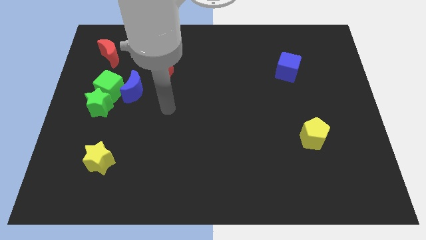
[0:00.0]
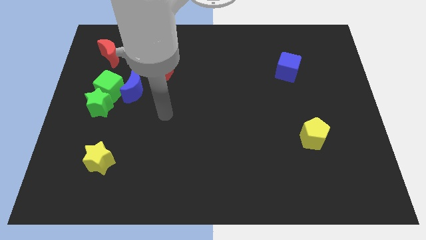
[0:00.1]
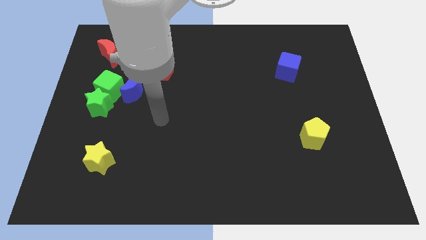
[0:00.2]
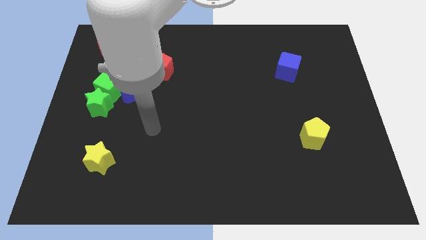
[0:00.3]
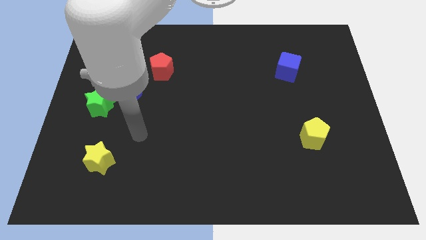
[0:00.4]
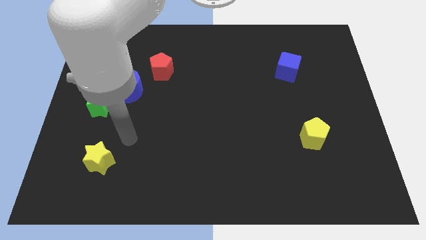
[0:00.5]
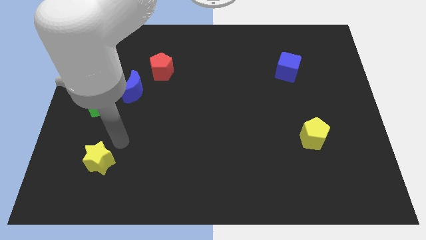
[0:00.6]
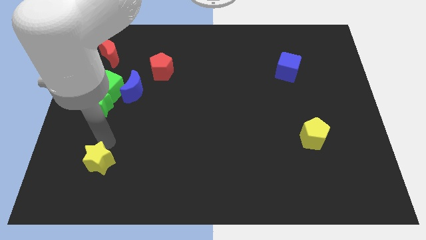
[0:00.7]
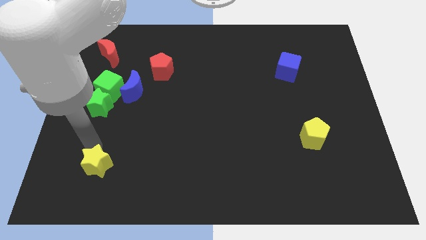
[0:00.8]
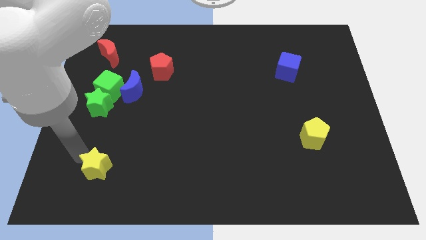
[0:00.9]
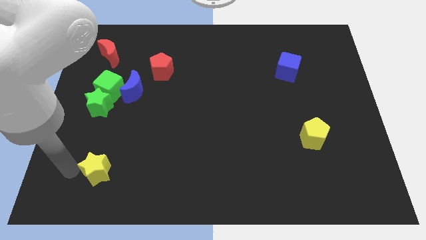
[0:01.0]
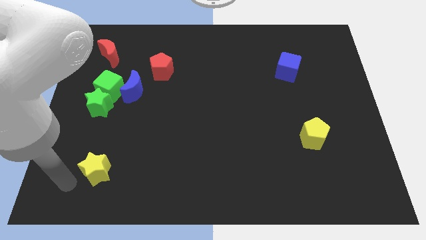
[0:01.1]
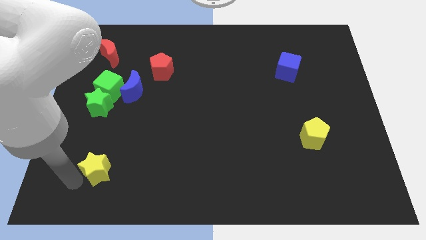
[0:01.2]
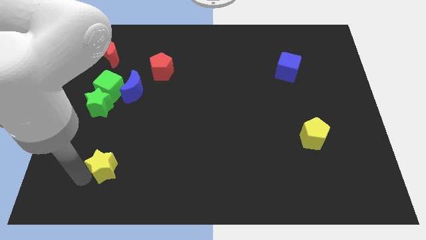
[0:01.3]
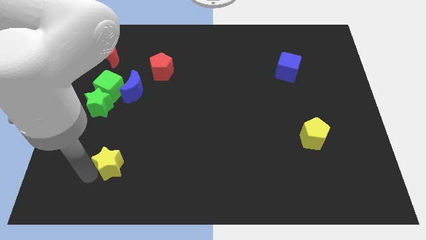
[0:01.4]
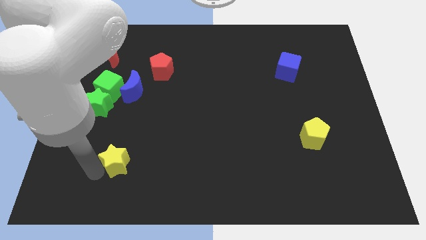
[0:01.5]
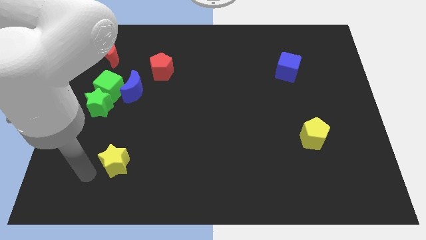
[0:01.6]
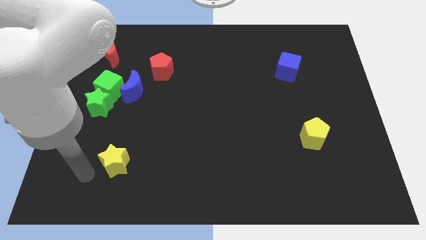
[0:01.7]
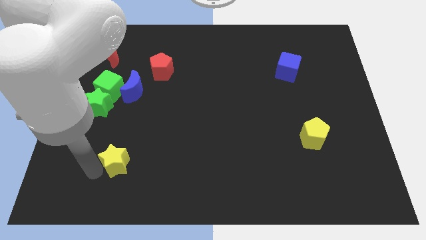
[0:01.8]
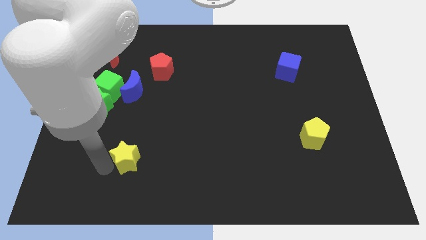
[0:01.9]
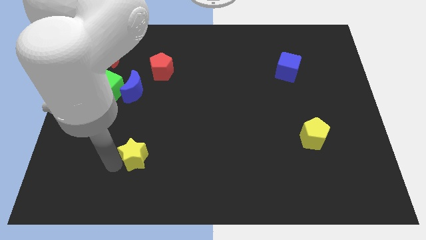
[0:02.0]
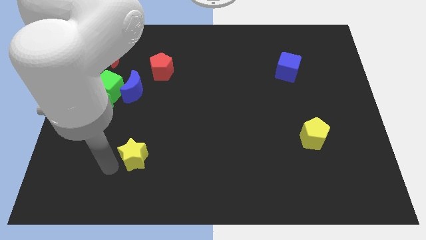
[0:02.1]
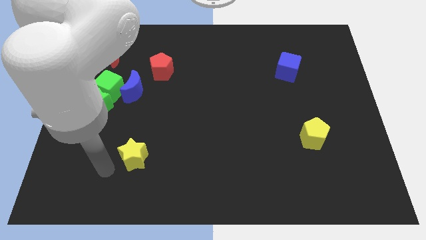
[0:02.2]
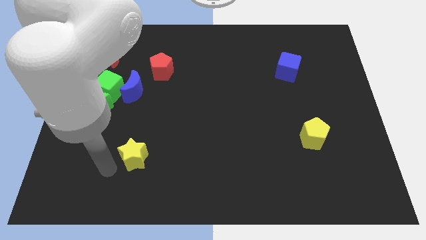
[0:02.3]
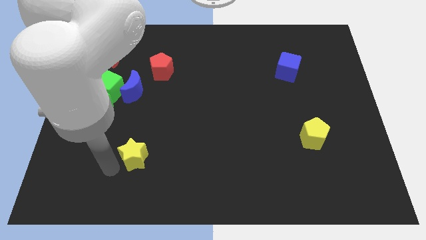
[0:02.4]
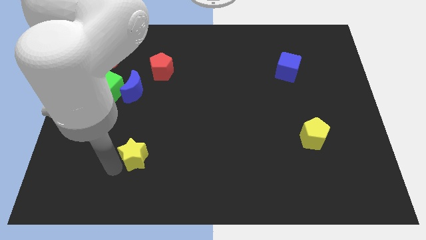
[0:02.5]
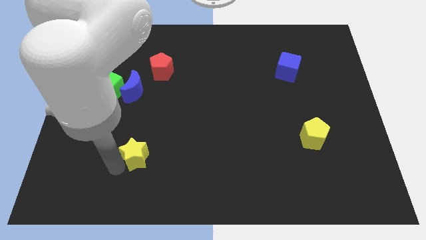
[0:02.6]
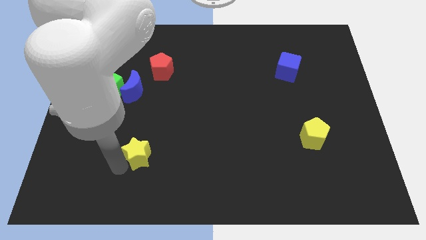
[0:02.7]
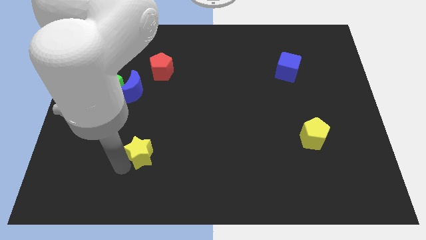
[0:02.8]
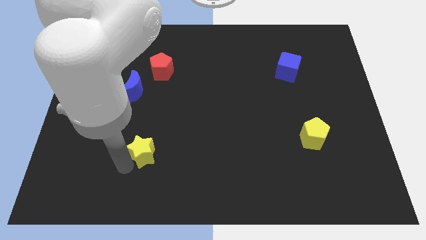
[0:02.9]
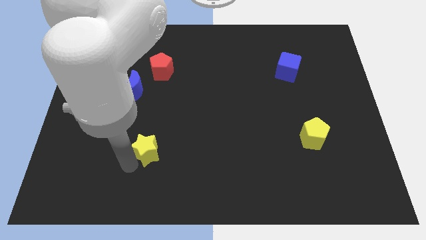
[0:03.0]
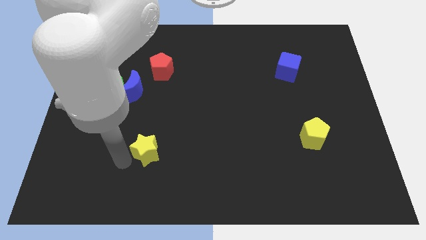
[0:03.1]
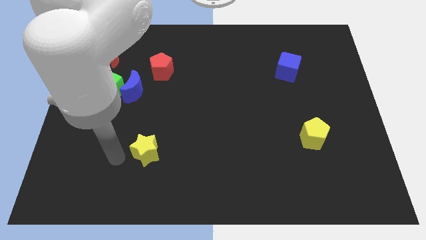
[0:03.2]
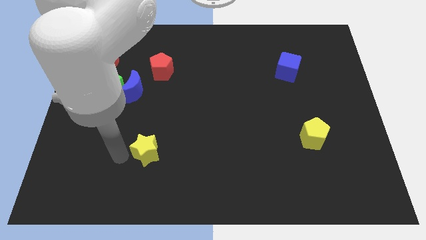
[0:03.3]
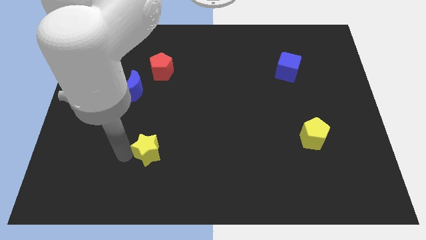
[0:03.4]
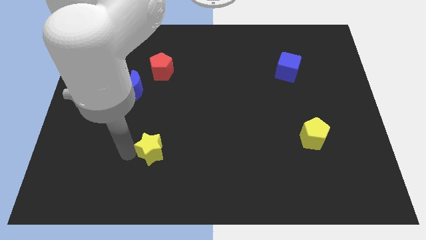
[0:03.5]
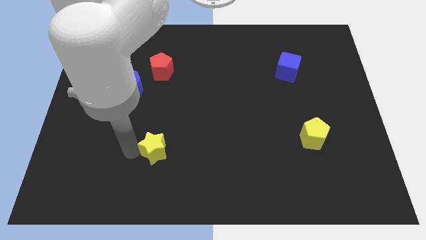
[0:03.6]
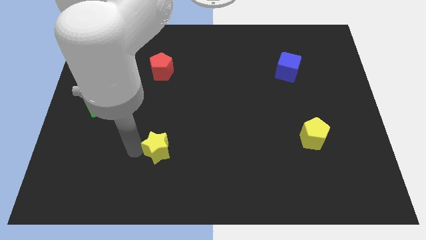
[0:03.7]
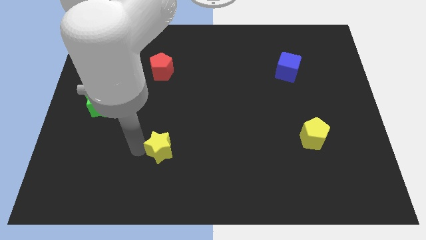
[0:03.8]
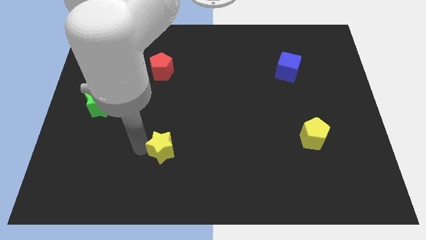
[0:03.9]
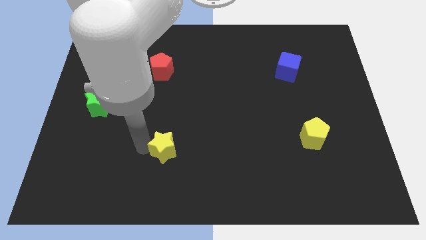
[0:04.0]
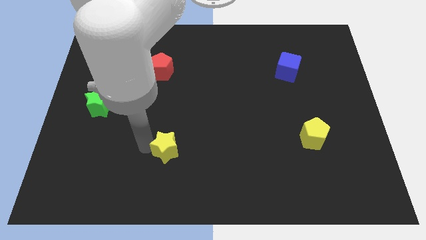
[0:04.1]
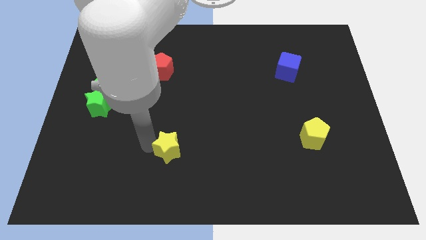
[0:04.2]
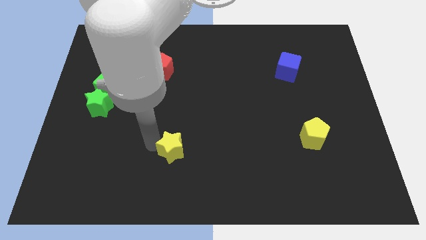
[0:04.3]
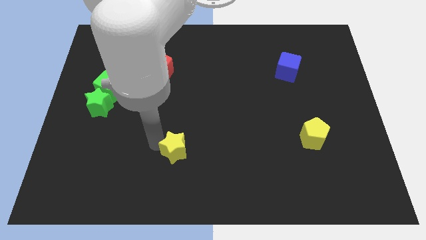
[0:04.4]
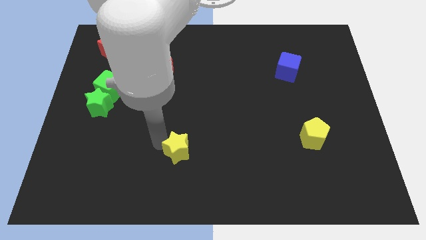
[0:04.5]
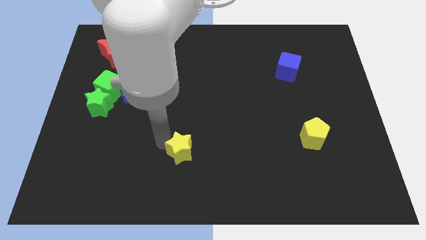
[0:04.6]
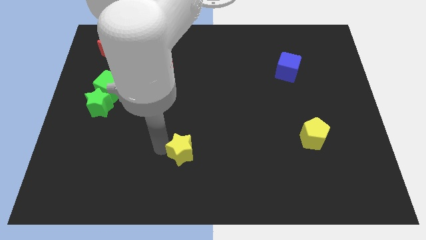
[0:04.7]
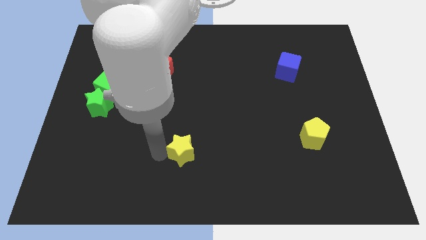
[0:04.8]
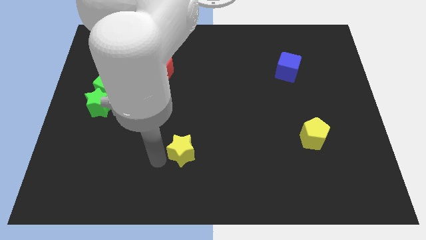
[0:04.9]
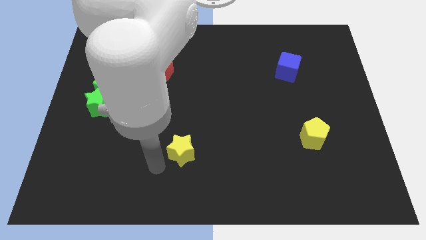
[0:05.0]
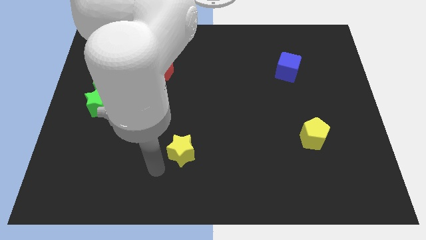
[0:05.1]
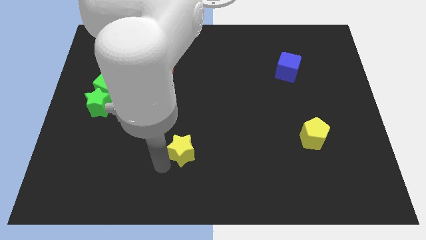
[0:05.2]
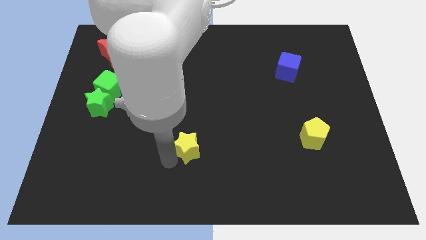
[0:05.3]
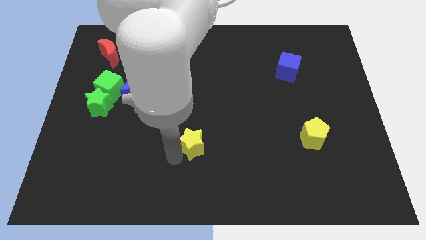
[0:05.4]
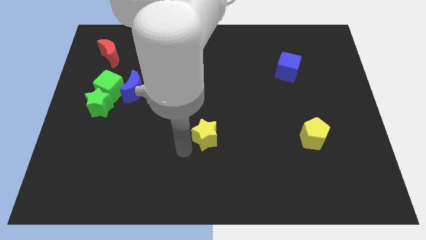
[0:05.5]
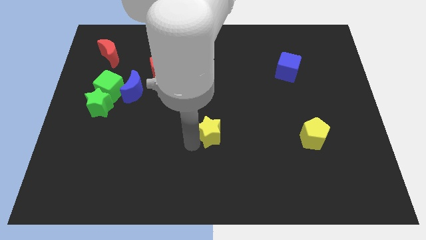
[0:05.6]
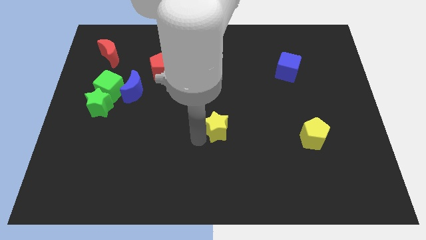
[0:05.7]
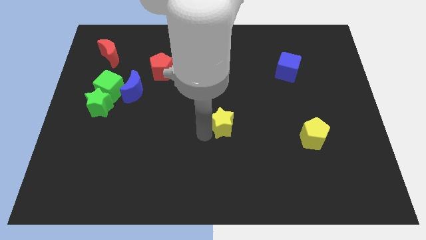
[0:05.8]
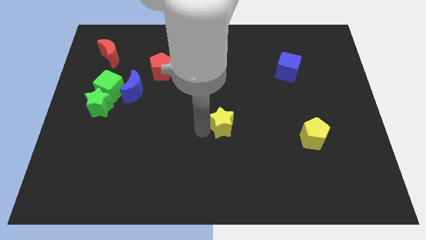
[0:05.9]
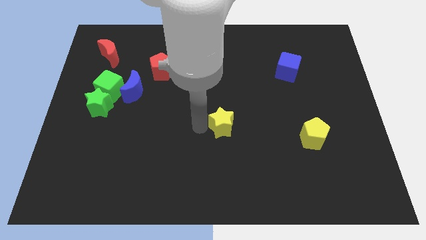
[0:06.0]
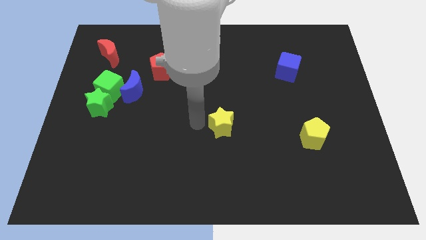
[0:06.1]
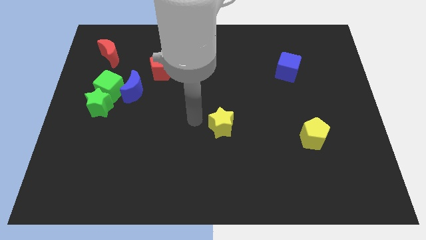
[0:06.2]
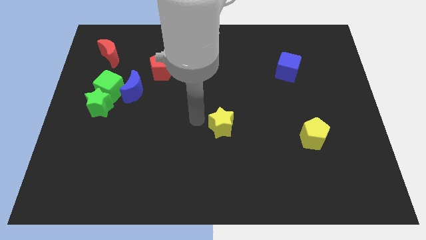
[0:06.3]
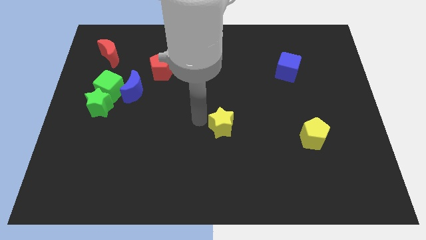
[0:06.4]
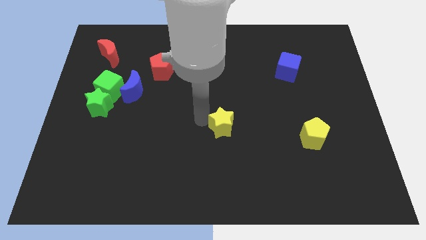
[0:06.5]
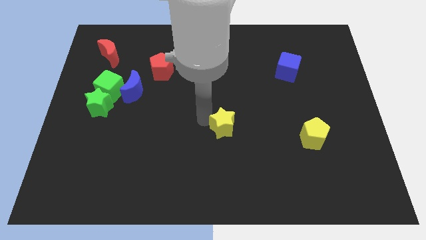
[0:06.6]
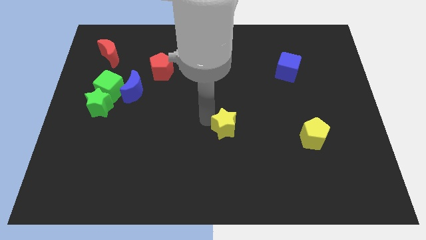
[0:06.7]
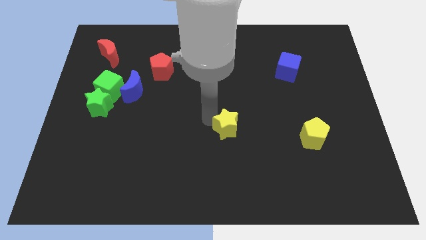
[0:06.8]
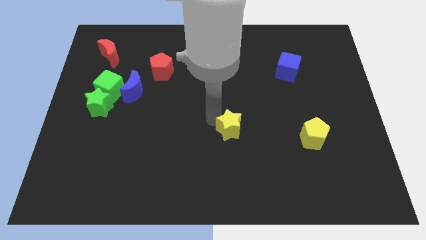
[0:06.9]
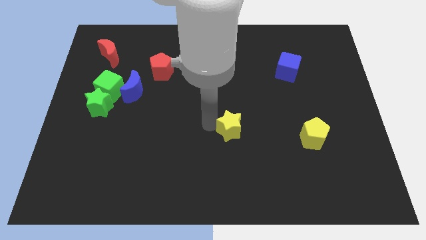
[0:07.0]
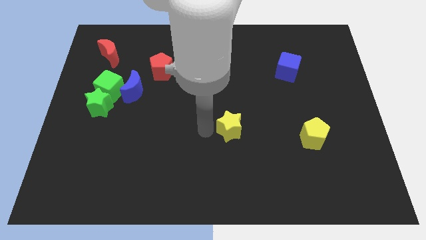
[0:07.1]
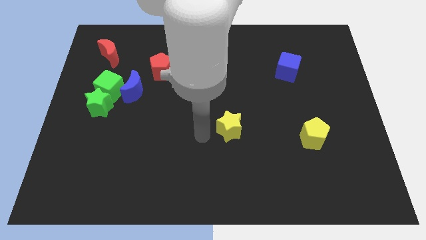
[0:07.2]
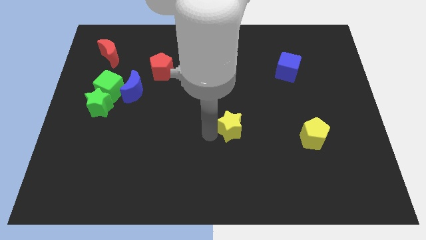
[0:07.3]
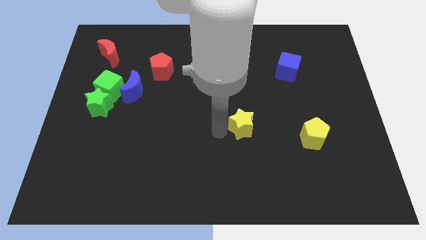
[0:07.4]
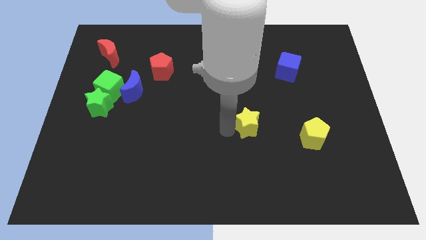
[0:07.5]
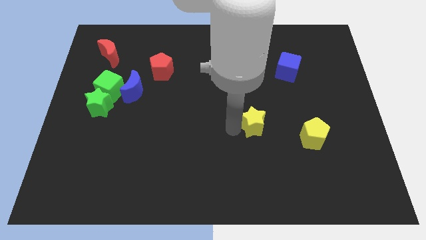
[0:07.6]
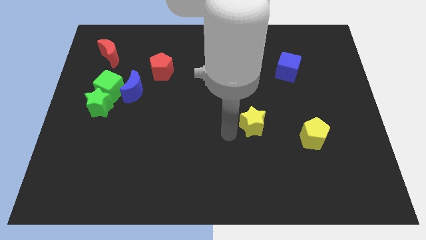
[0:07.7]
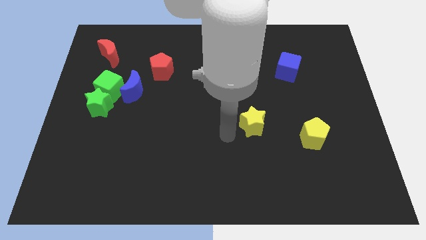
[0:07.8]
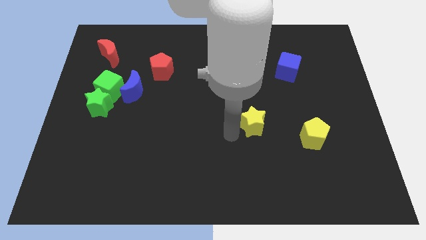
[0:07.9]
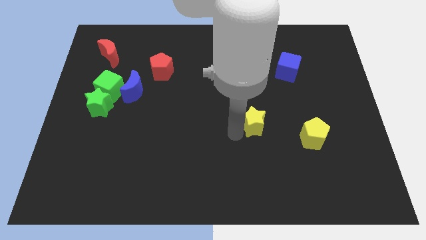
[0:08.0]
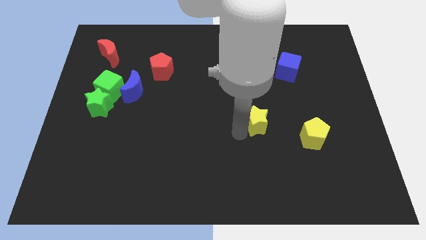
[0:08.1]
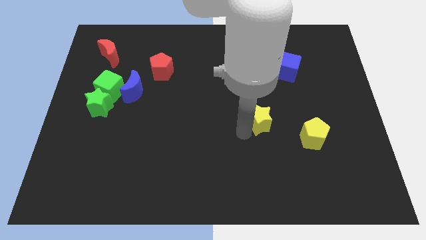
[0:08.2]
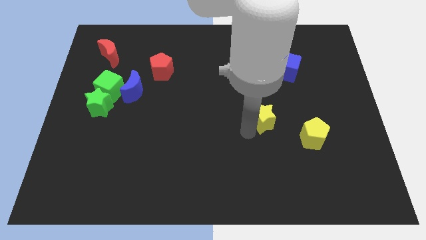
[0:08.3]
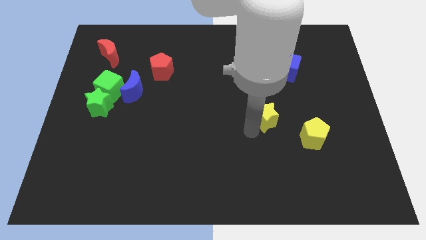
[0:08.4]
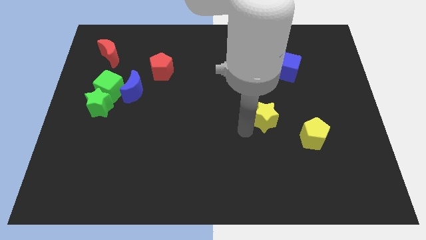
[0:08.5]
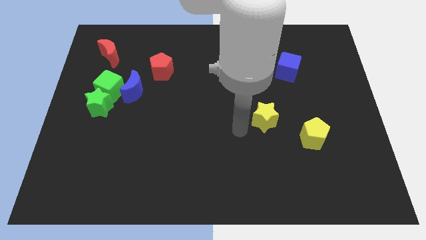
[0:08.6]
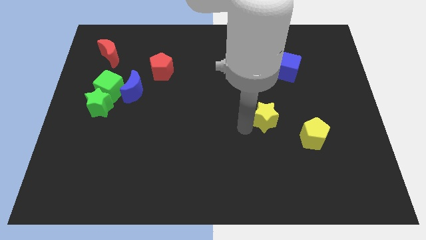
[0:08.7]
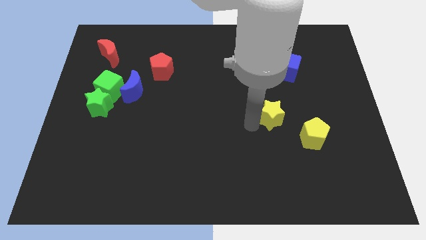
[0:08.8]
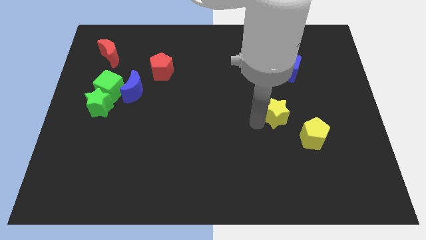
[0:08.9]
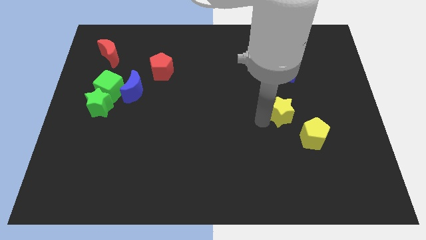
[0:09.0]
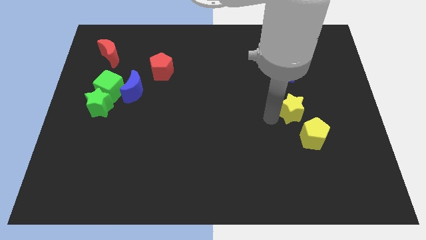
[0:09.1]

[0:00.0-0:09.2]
slide the yellow star above the yellow pentagon
